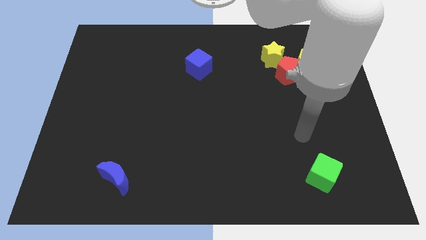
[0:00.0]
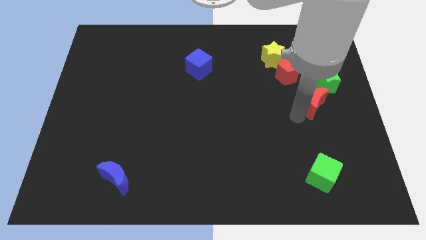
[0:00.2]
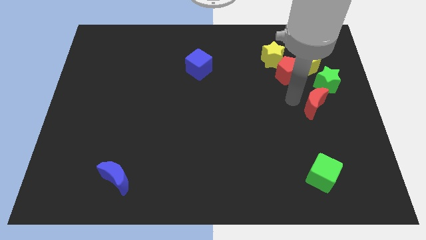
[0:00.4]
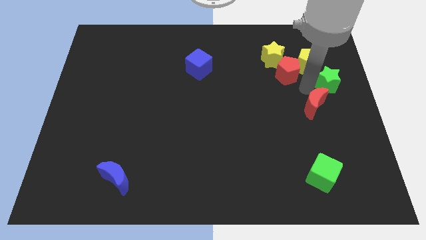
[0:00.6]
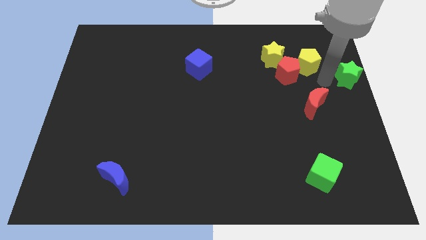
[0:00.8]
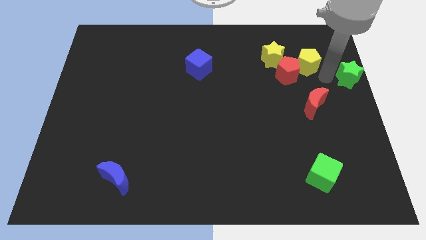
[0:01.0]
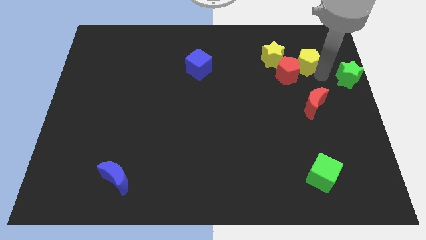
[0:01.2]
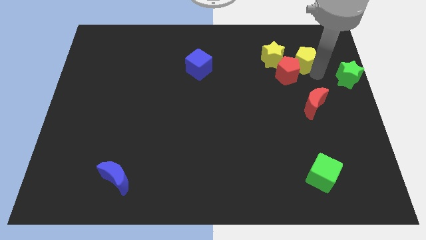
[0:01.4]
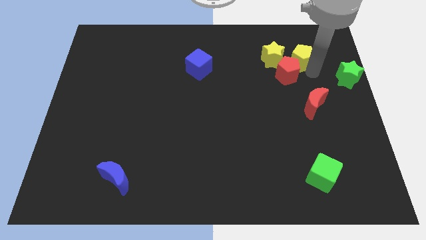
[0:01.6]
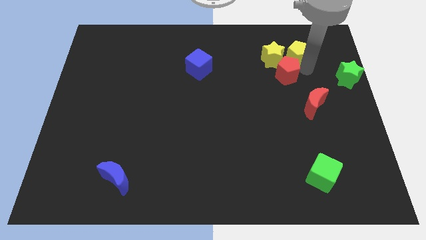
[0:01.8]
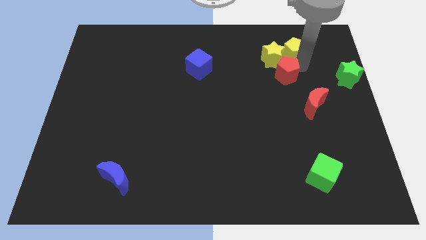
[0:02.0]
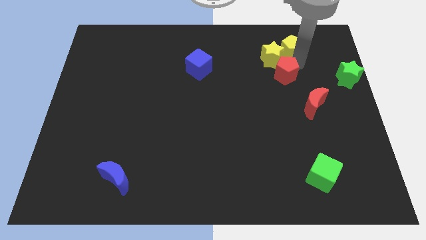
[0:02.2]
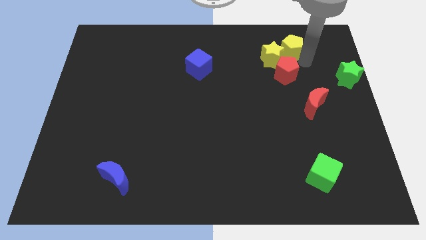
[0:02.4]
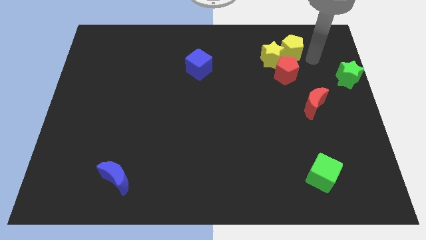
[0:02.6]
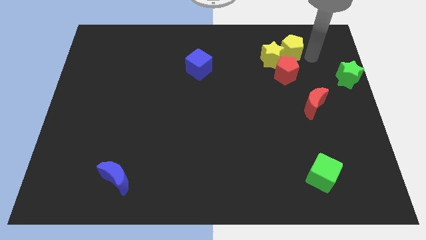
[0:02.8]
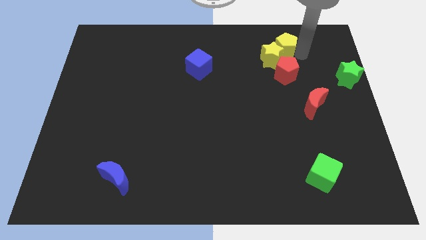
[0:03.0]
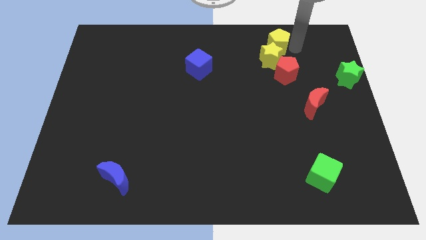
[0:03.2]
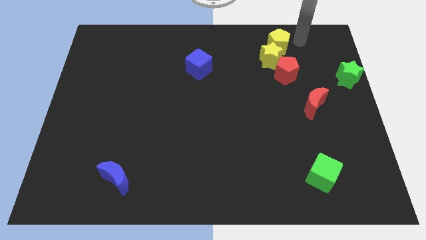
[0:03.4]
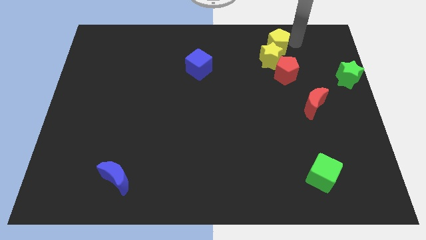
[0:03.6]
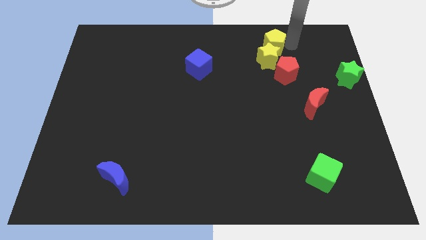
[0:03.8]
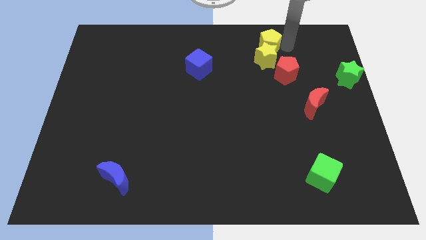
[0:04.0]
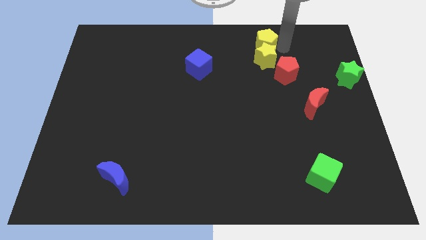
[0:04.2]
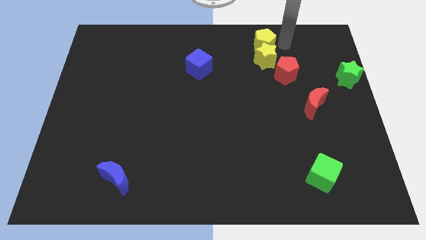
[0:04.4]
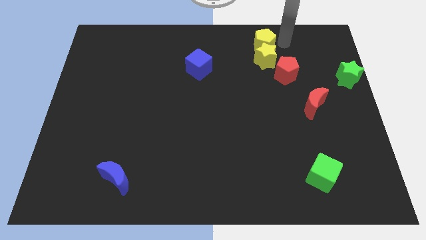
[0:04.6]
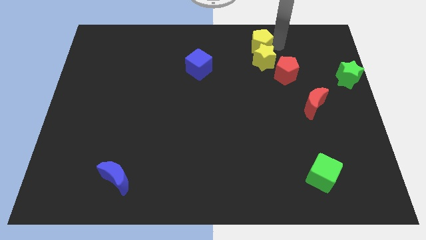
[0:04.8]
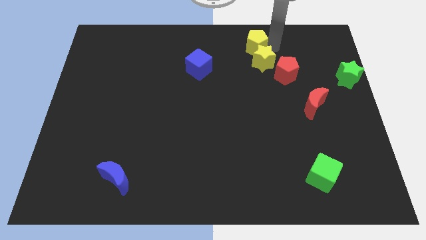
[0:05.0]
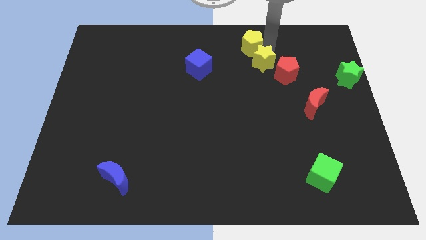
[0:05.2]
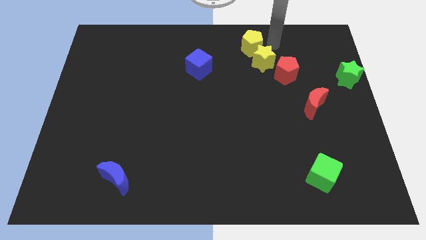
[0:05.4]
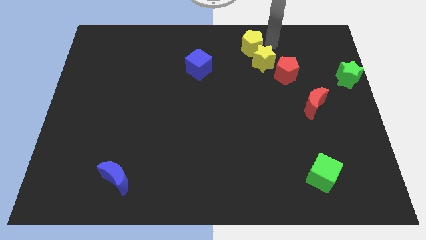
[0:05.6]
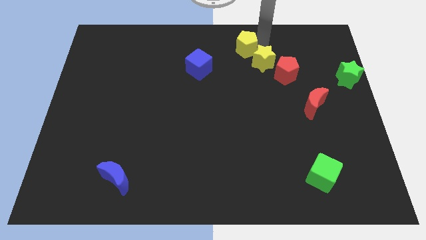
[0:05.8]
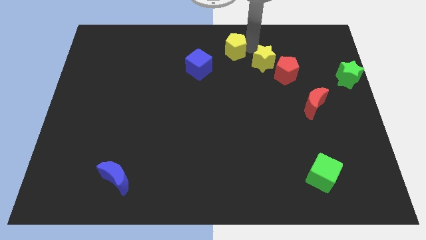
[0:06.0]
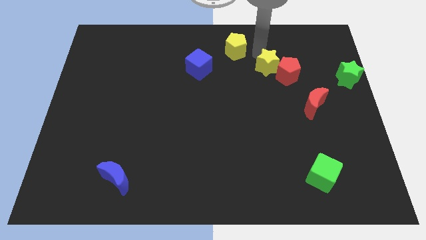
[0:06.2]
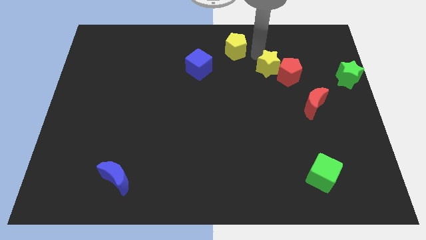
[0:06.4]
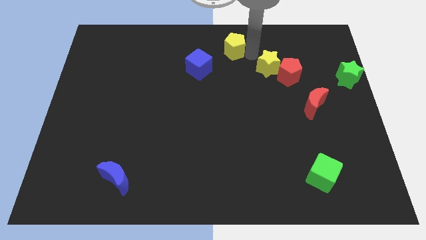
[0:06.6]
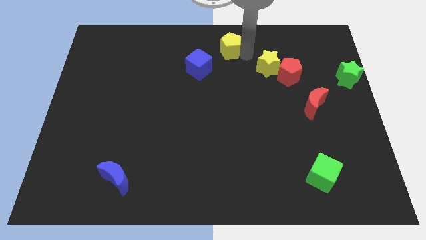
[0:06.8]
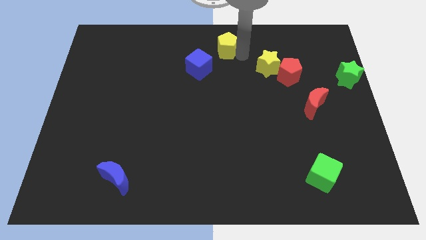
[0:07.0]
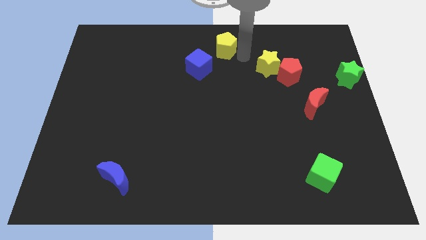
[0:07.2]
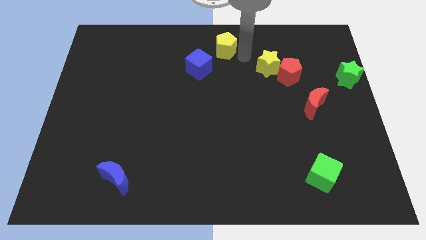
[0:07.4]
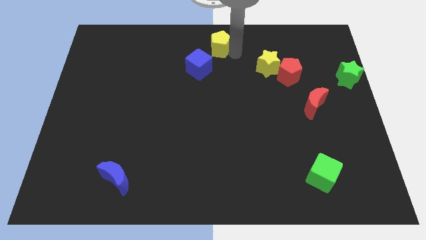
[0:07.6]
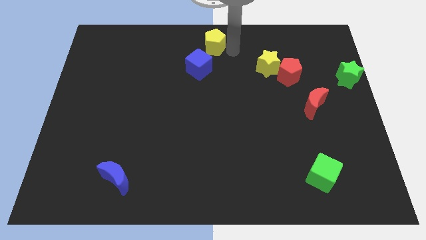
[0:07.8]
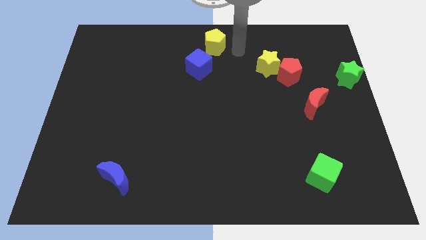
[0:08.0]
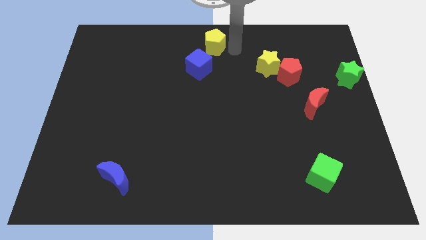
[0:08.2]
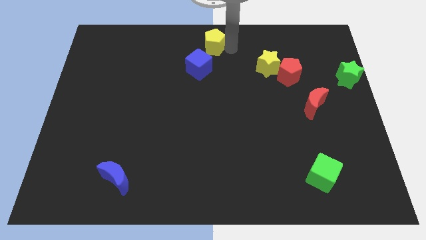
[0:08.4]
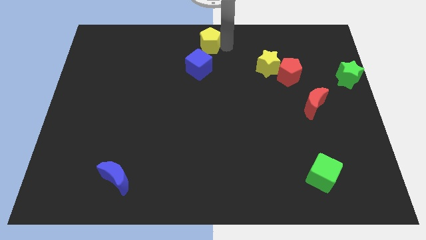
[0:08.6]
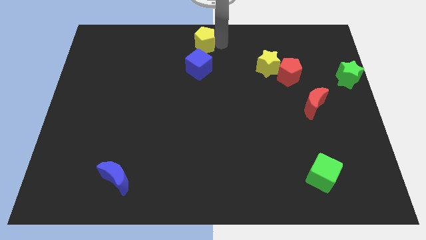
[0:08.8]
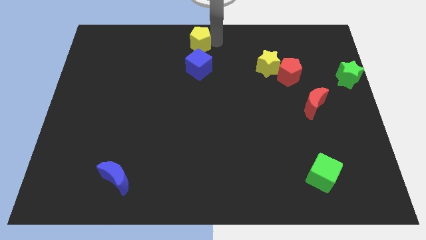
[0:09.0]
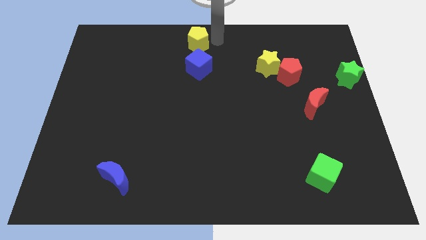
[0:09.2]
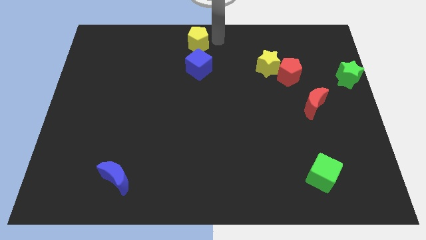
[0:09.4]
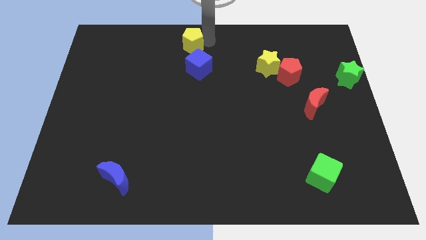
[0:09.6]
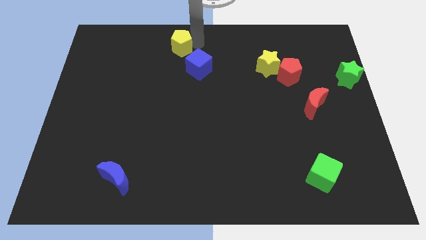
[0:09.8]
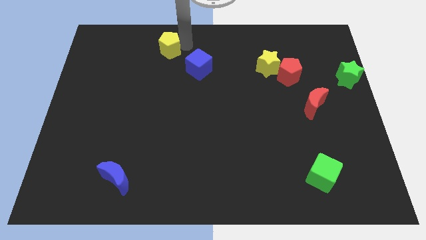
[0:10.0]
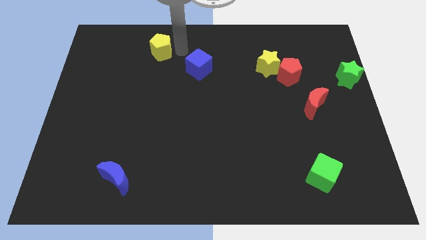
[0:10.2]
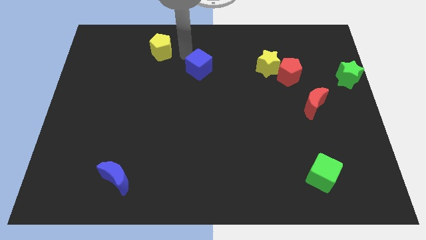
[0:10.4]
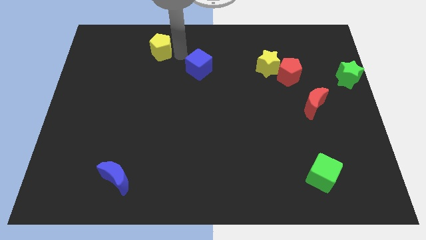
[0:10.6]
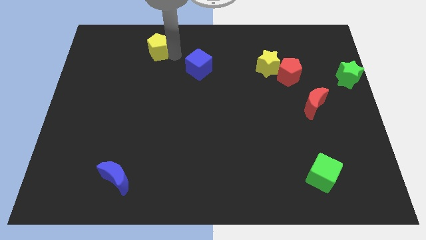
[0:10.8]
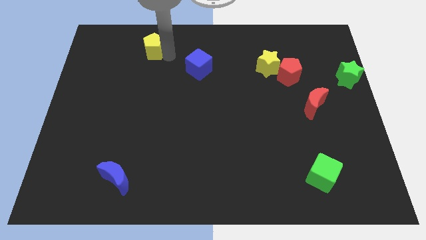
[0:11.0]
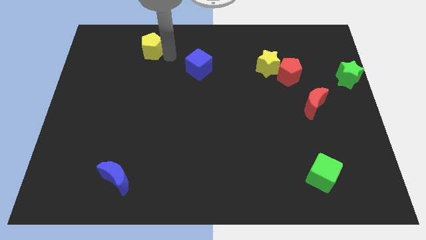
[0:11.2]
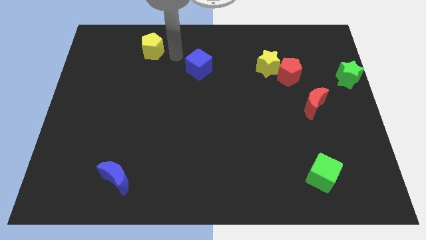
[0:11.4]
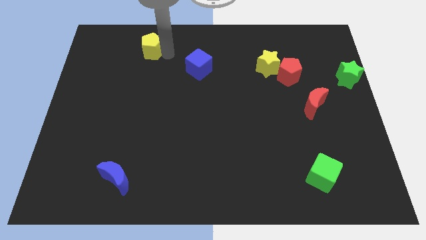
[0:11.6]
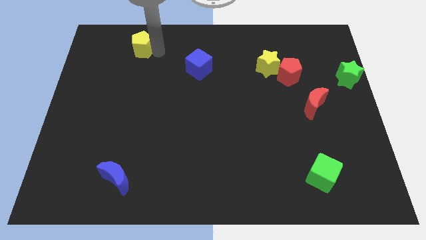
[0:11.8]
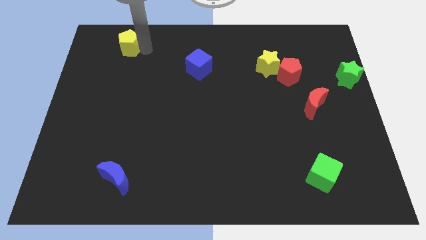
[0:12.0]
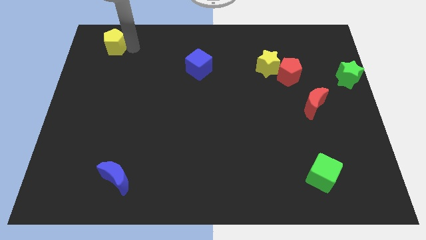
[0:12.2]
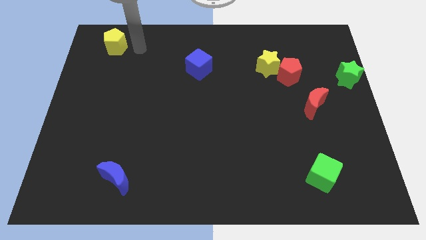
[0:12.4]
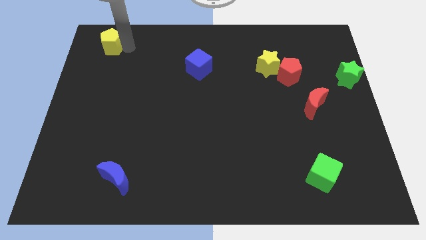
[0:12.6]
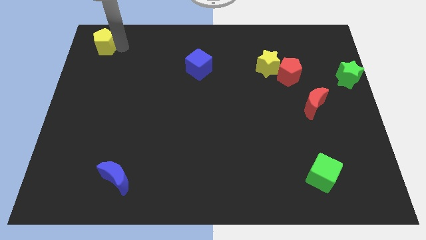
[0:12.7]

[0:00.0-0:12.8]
push the yellow pentagon to the top left of the board
